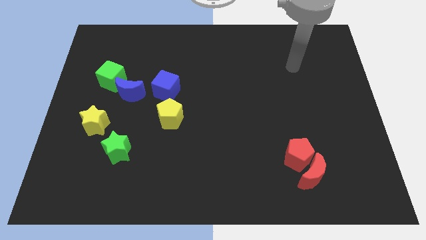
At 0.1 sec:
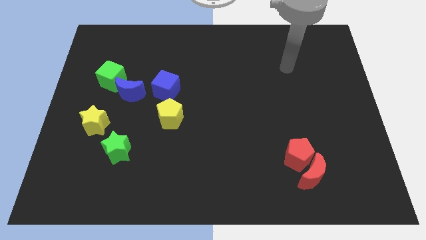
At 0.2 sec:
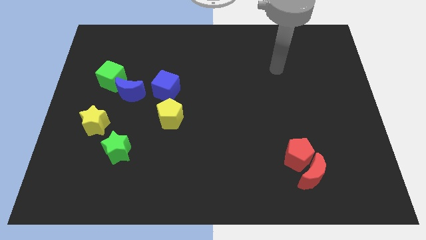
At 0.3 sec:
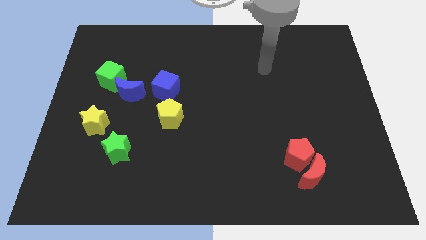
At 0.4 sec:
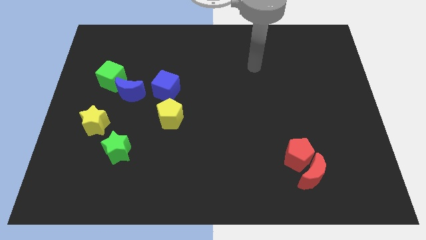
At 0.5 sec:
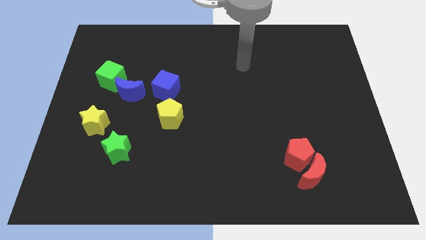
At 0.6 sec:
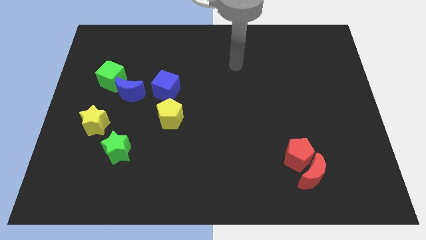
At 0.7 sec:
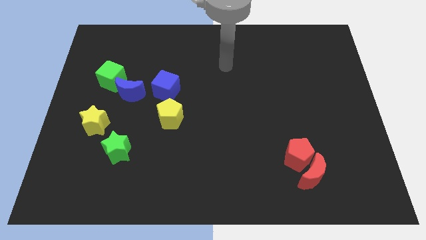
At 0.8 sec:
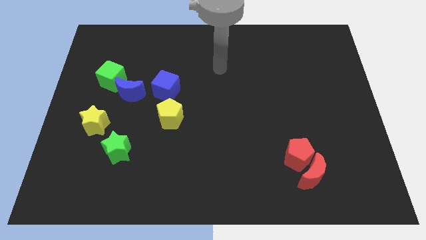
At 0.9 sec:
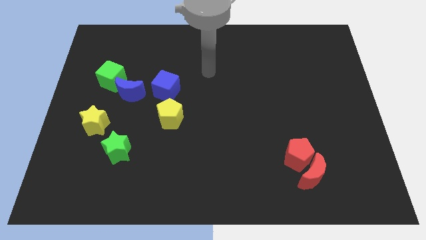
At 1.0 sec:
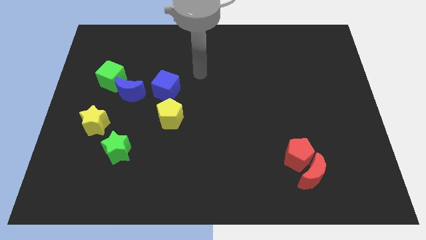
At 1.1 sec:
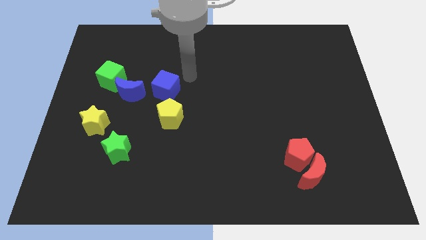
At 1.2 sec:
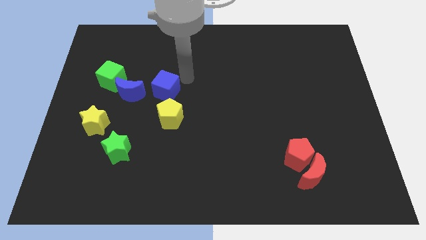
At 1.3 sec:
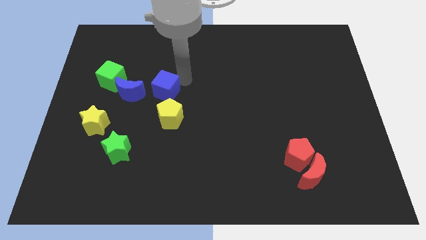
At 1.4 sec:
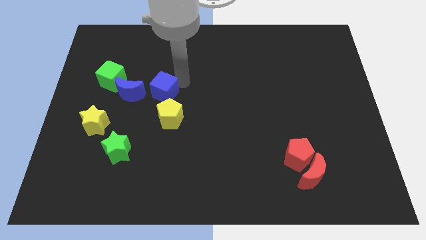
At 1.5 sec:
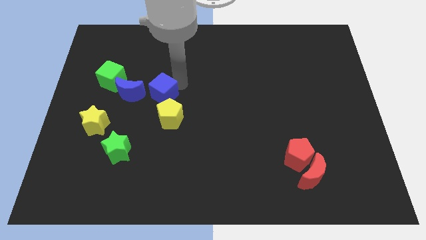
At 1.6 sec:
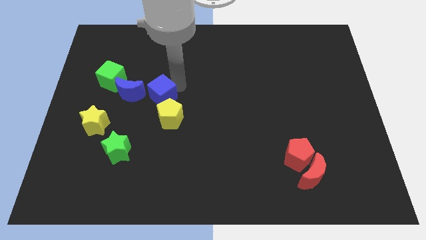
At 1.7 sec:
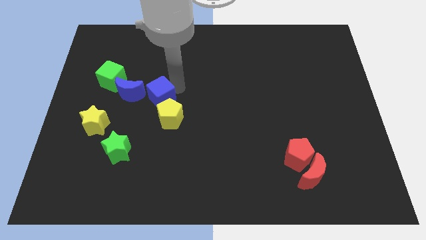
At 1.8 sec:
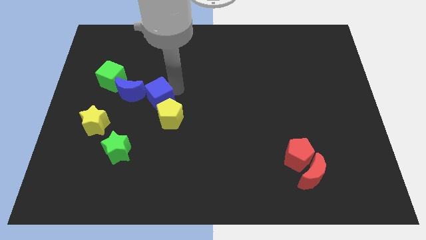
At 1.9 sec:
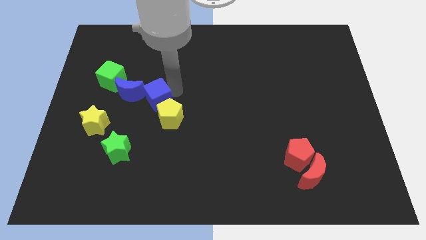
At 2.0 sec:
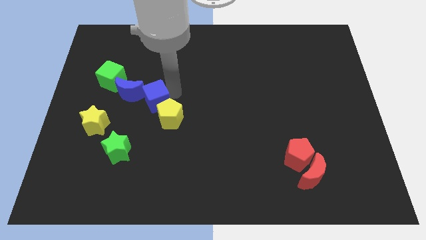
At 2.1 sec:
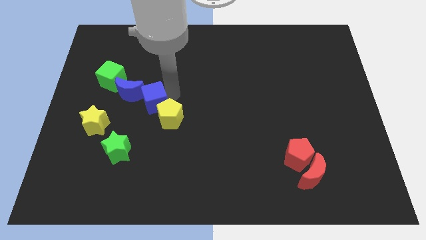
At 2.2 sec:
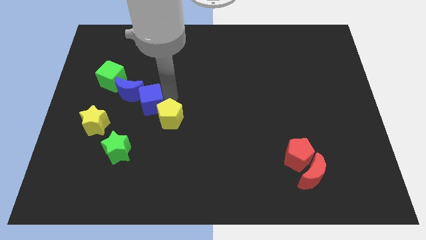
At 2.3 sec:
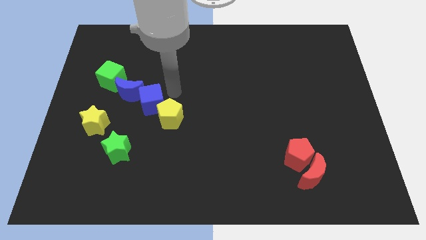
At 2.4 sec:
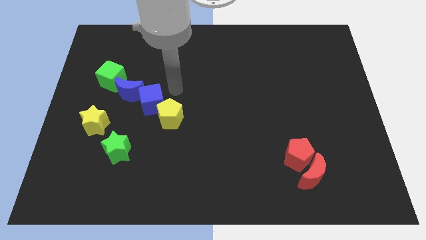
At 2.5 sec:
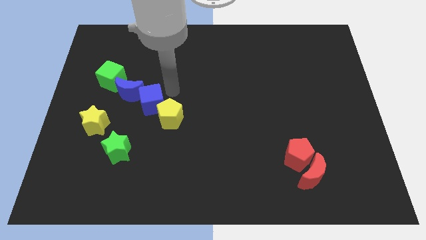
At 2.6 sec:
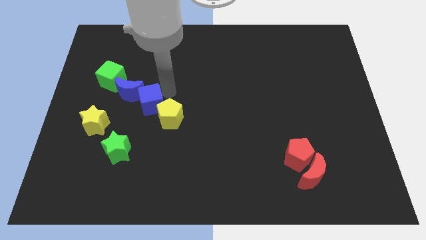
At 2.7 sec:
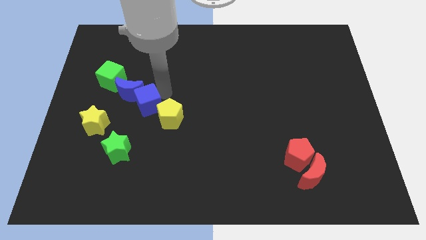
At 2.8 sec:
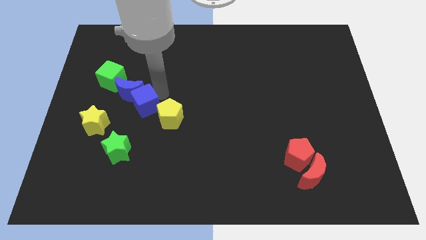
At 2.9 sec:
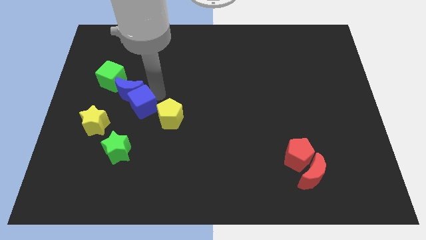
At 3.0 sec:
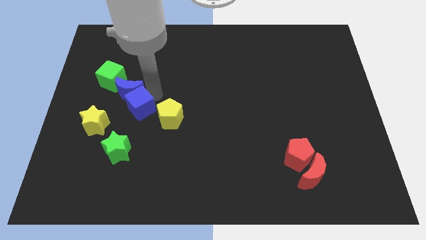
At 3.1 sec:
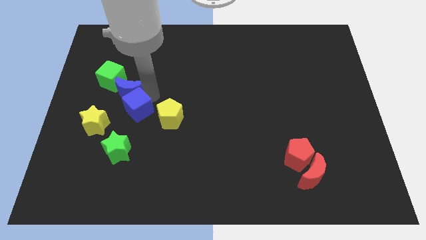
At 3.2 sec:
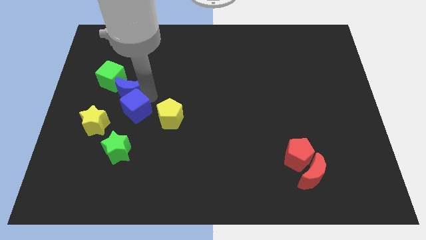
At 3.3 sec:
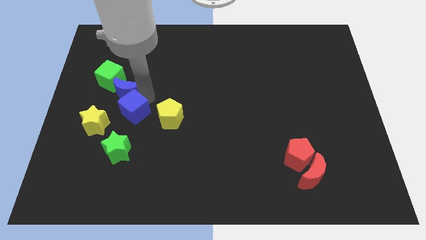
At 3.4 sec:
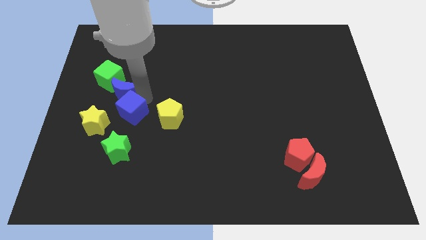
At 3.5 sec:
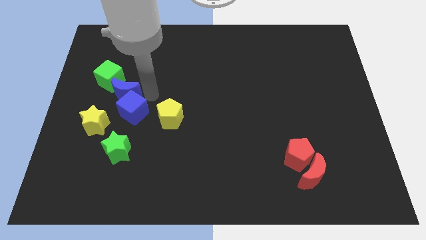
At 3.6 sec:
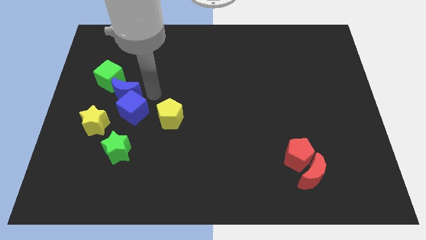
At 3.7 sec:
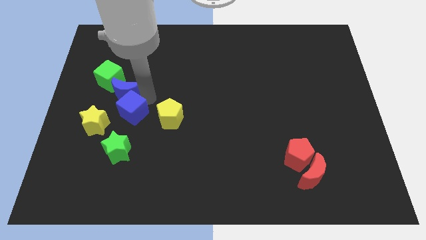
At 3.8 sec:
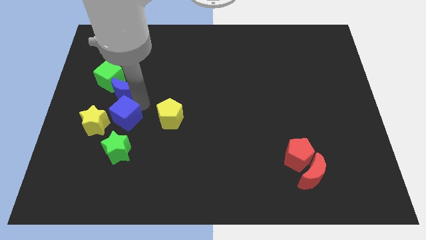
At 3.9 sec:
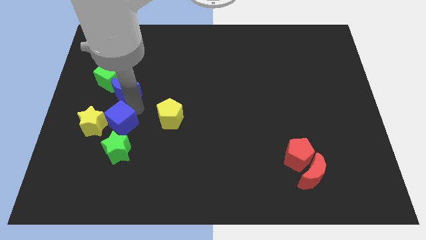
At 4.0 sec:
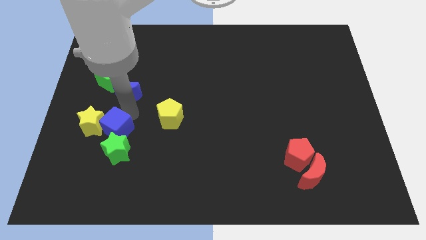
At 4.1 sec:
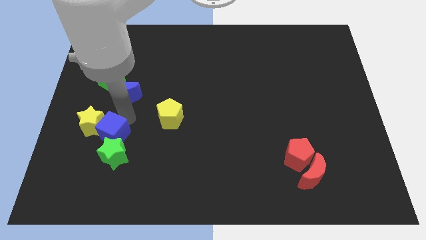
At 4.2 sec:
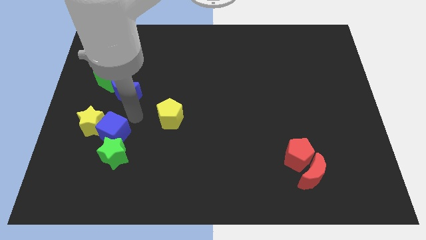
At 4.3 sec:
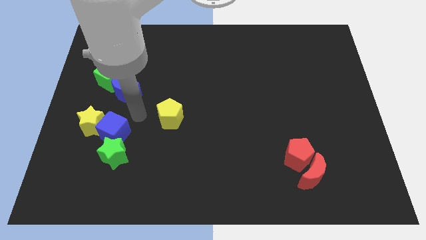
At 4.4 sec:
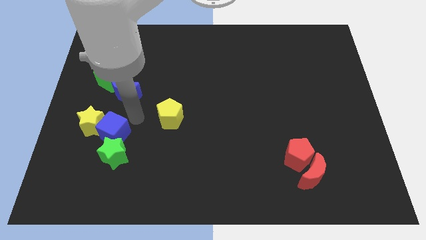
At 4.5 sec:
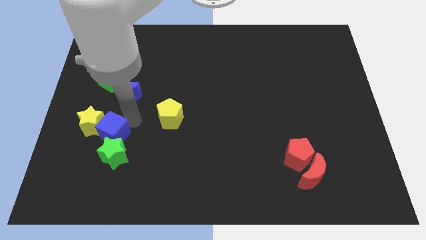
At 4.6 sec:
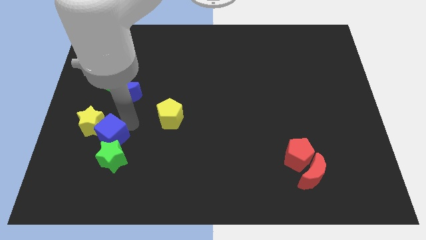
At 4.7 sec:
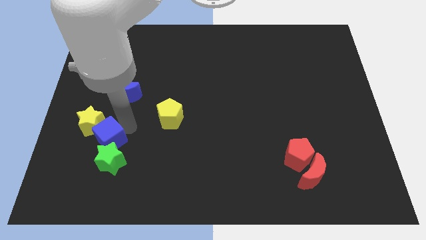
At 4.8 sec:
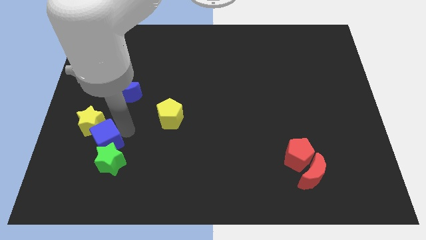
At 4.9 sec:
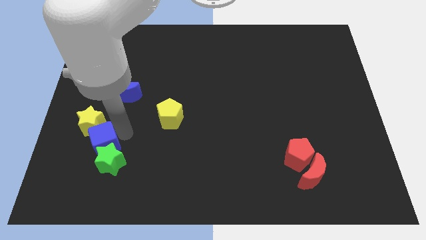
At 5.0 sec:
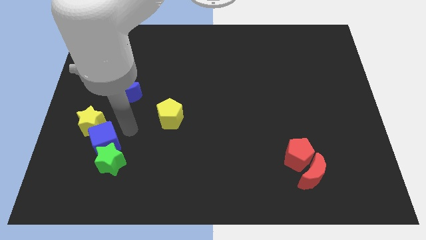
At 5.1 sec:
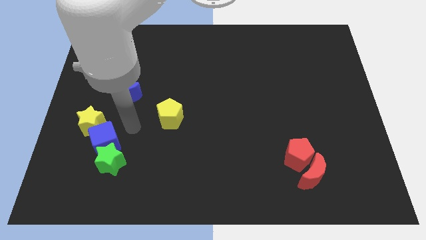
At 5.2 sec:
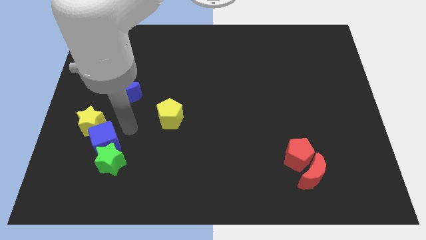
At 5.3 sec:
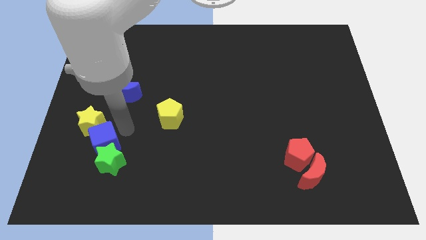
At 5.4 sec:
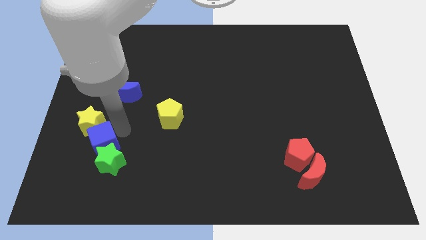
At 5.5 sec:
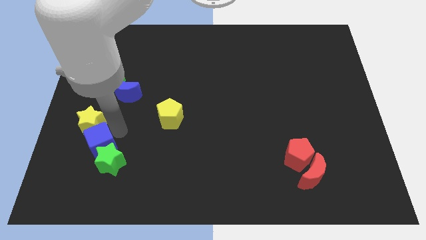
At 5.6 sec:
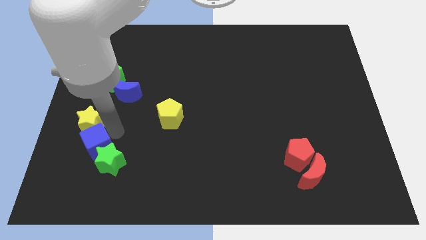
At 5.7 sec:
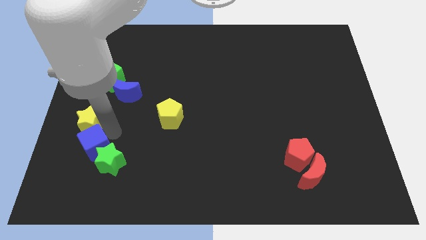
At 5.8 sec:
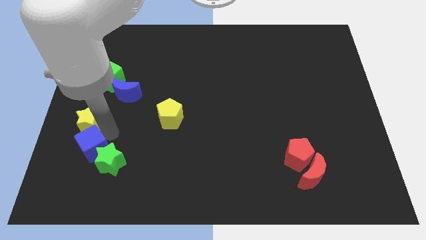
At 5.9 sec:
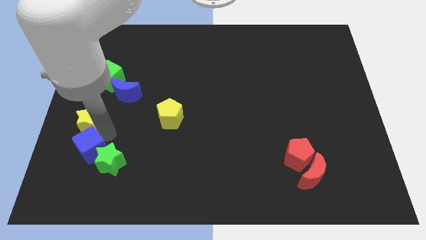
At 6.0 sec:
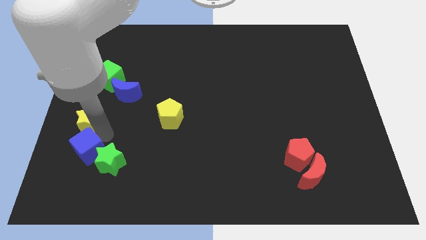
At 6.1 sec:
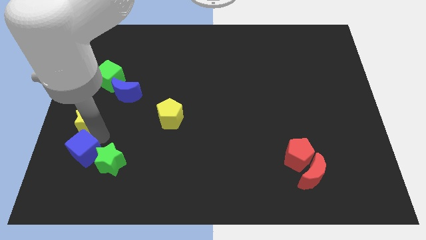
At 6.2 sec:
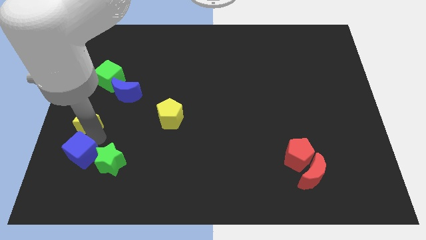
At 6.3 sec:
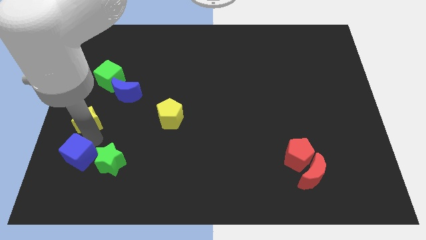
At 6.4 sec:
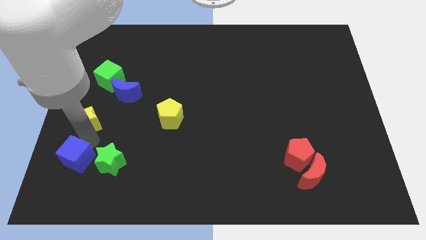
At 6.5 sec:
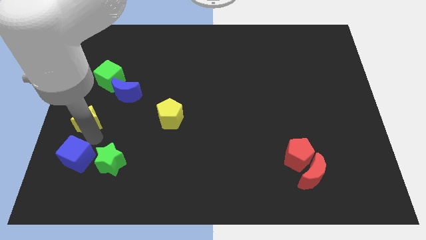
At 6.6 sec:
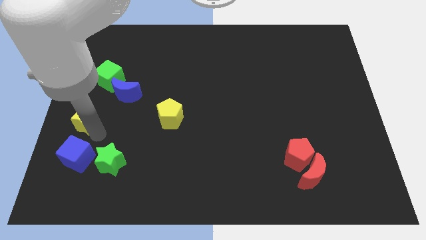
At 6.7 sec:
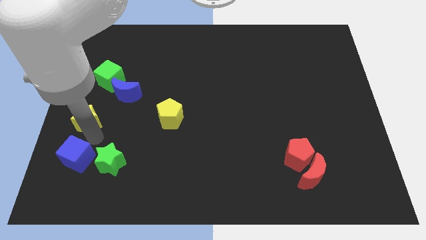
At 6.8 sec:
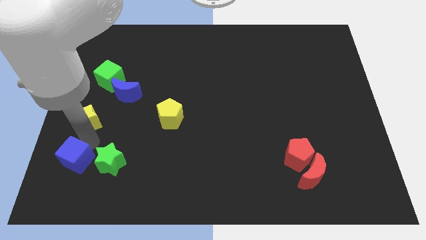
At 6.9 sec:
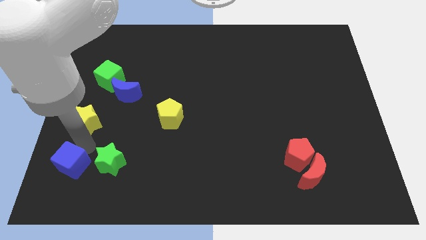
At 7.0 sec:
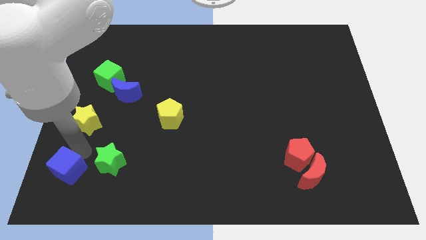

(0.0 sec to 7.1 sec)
put the blue cube to the bottom left
